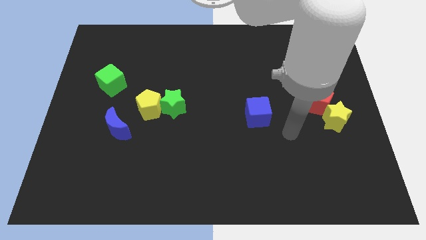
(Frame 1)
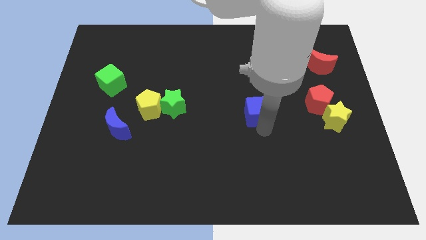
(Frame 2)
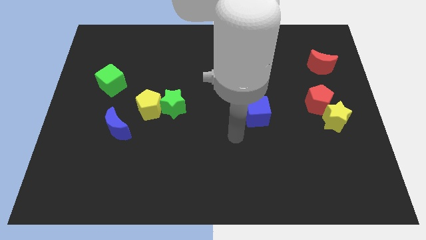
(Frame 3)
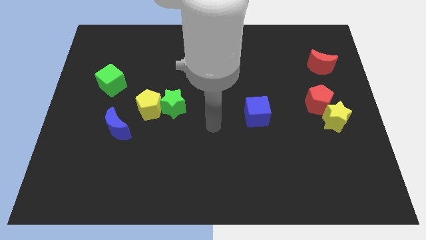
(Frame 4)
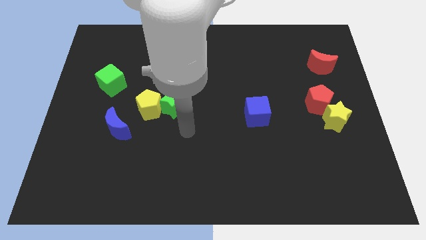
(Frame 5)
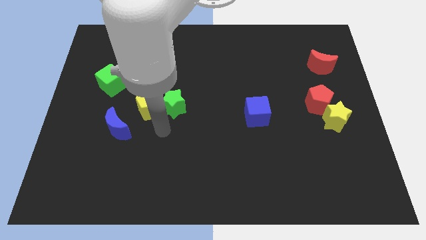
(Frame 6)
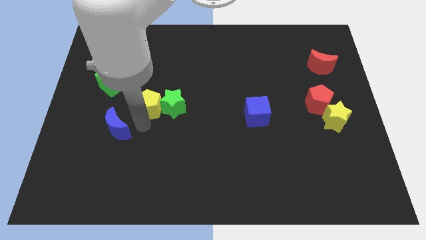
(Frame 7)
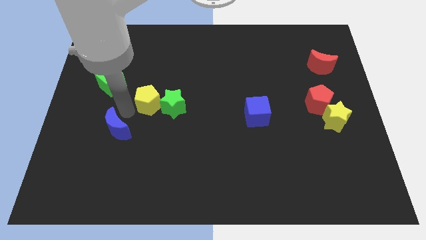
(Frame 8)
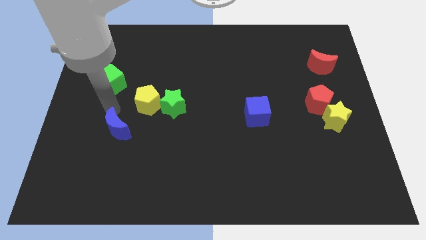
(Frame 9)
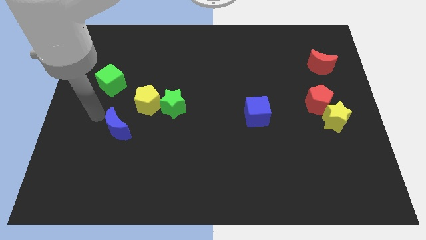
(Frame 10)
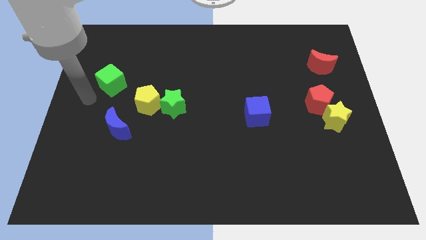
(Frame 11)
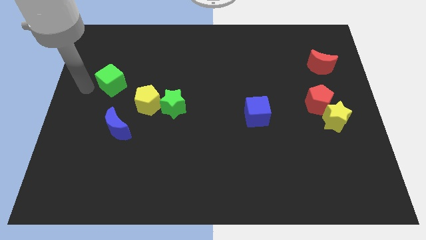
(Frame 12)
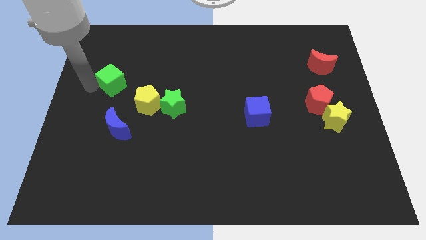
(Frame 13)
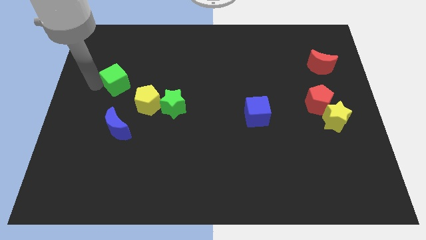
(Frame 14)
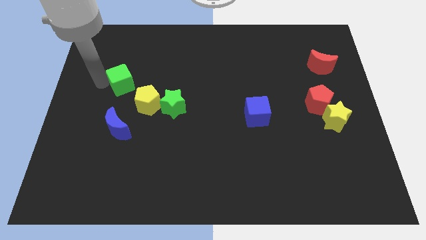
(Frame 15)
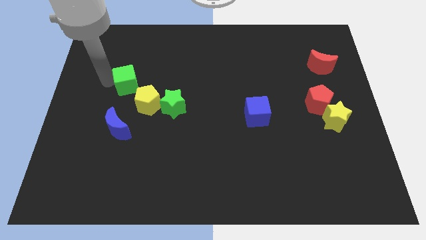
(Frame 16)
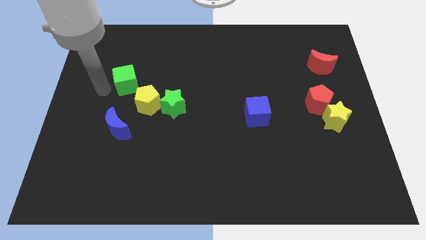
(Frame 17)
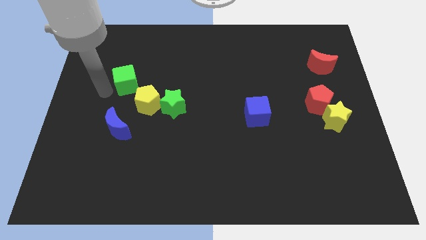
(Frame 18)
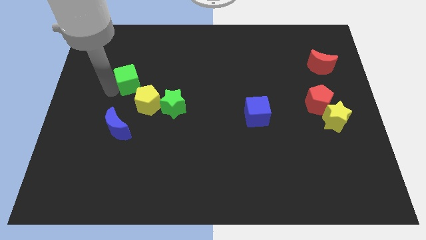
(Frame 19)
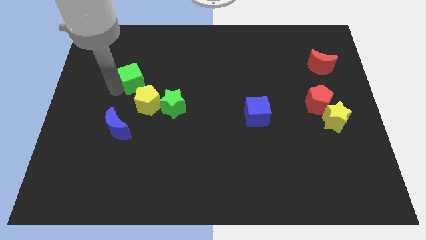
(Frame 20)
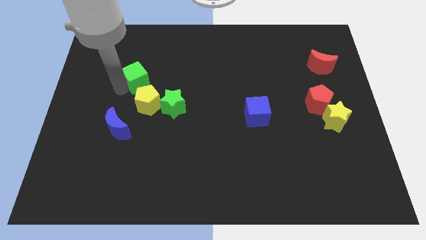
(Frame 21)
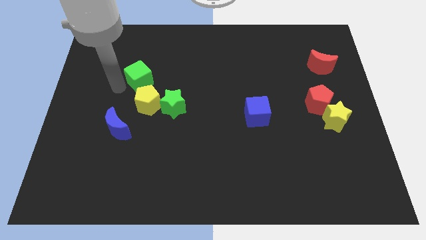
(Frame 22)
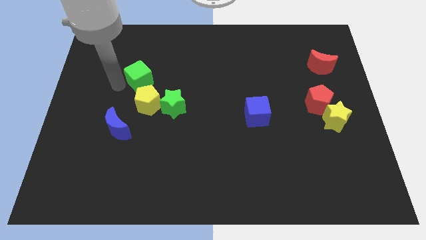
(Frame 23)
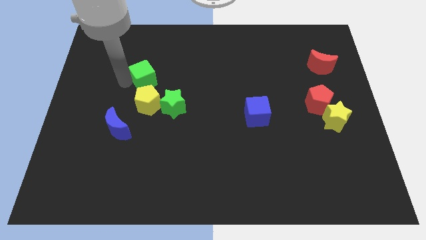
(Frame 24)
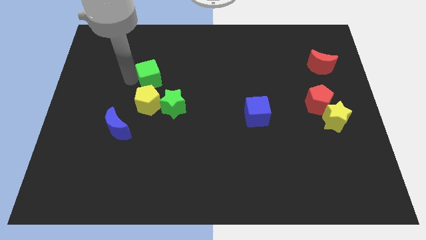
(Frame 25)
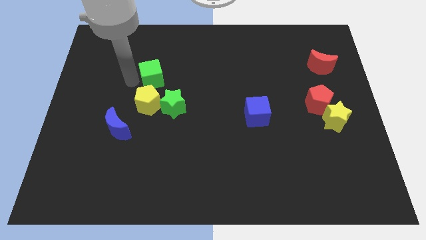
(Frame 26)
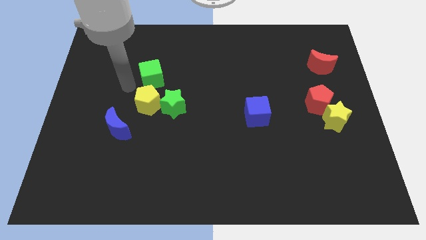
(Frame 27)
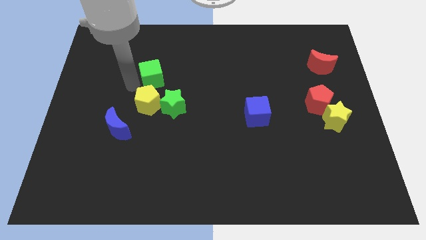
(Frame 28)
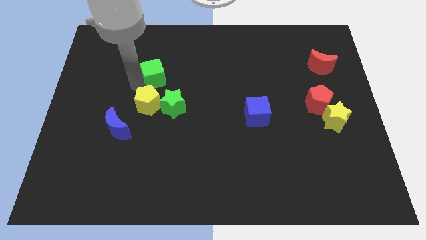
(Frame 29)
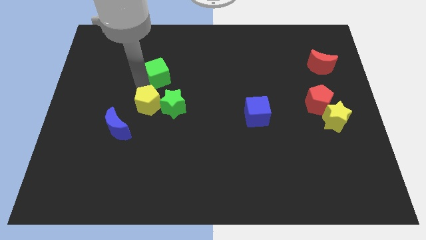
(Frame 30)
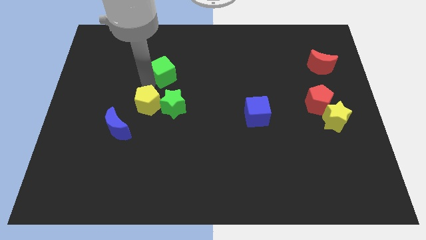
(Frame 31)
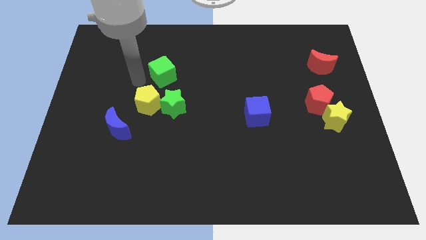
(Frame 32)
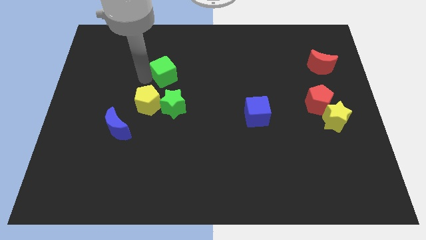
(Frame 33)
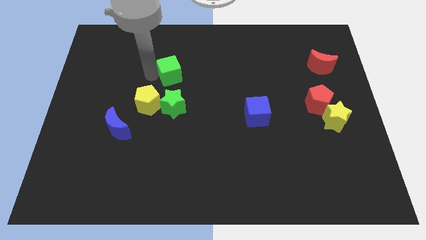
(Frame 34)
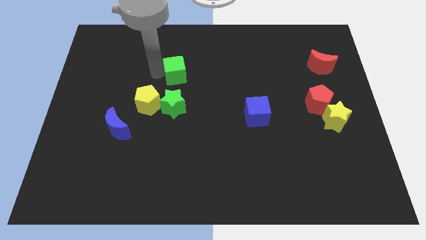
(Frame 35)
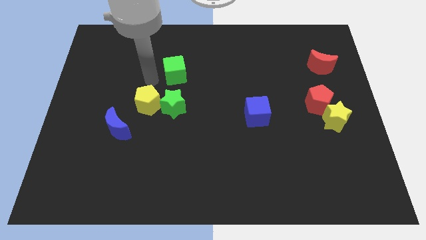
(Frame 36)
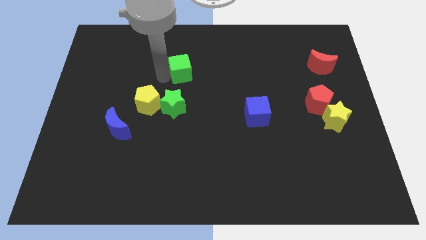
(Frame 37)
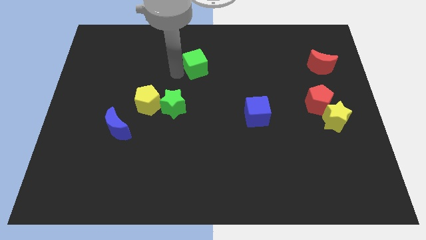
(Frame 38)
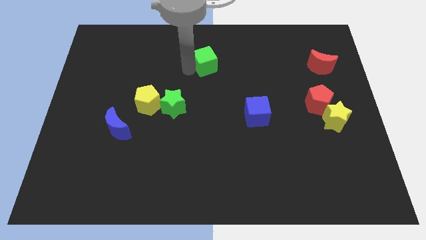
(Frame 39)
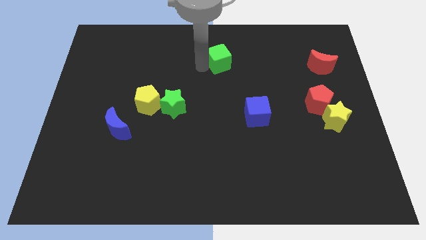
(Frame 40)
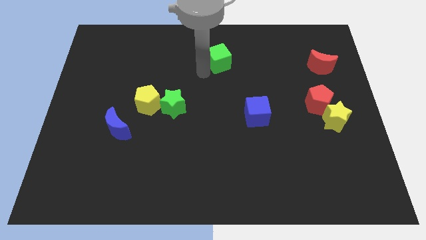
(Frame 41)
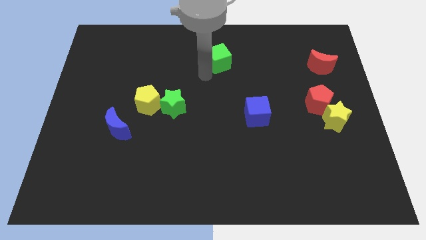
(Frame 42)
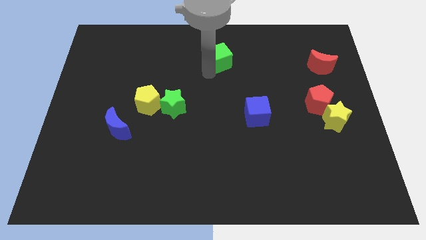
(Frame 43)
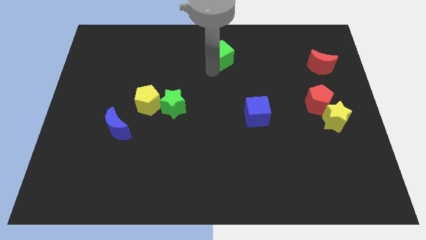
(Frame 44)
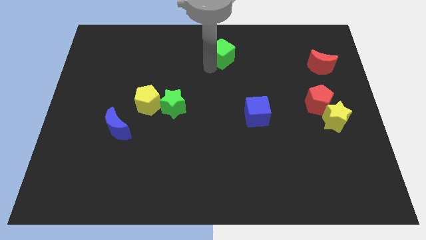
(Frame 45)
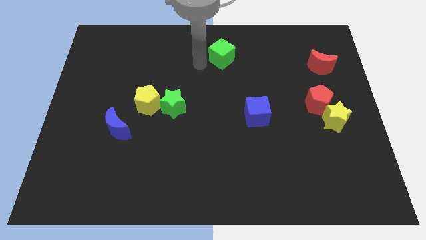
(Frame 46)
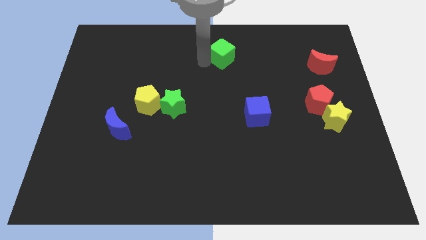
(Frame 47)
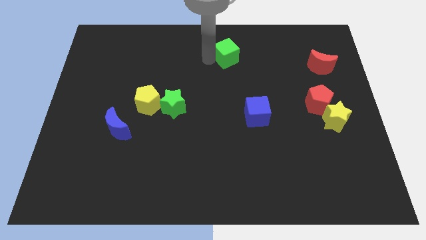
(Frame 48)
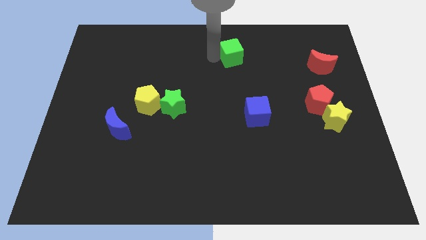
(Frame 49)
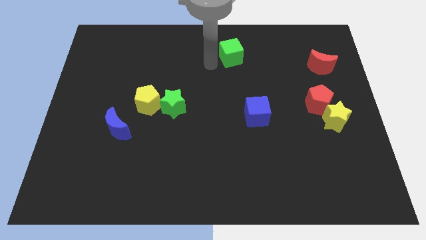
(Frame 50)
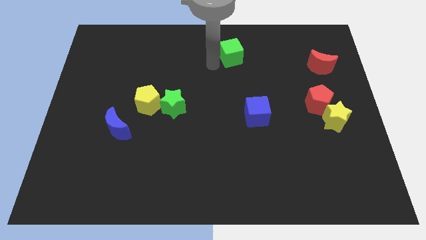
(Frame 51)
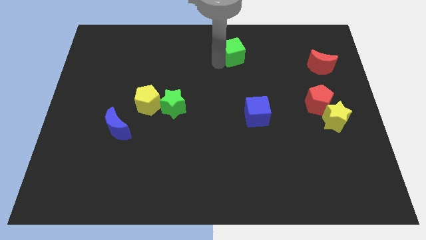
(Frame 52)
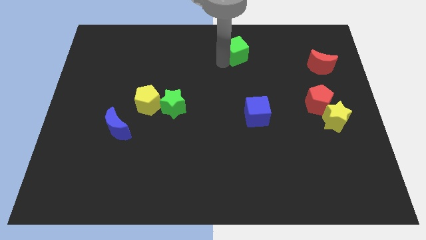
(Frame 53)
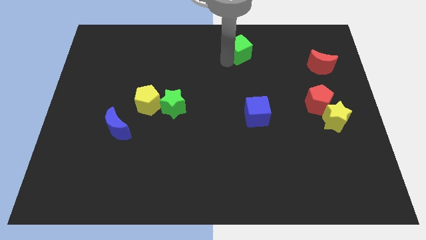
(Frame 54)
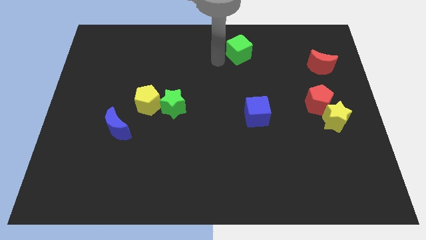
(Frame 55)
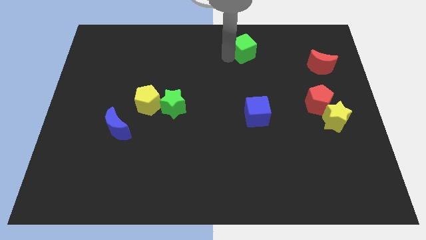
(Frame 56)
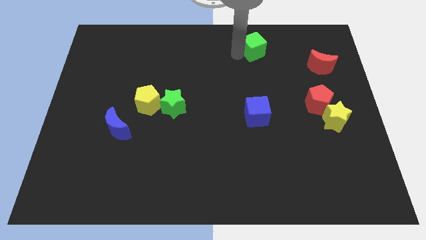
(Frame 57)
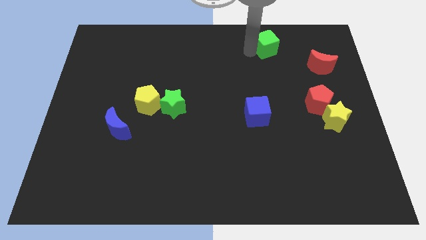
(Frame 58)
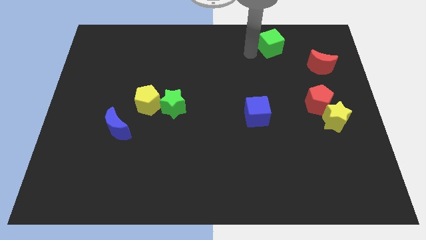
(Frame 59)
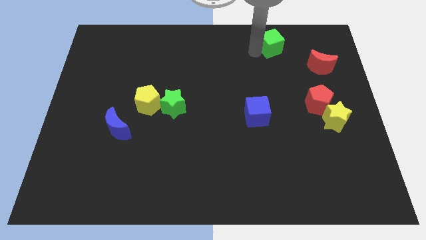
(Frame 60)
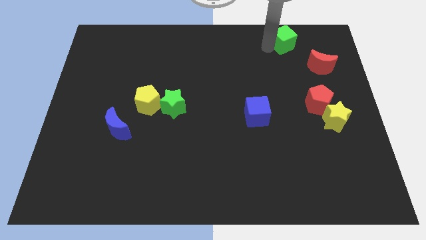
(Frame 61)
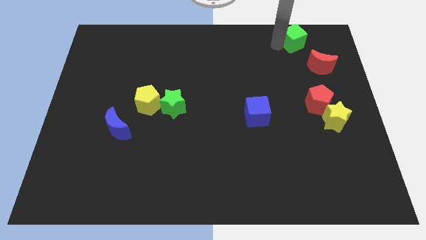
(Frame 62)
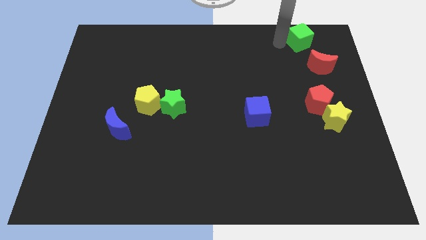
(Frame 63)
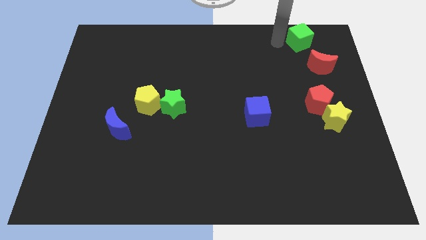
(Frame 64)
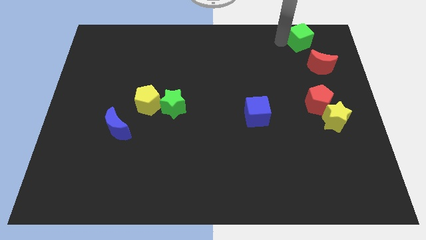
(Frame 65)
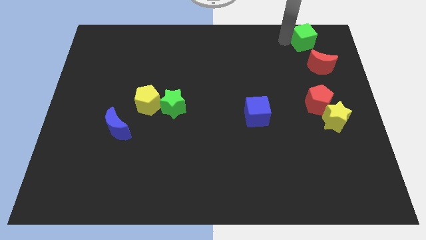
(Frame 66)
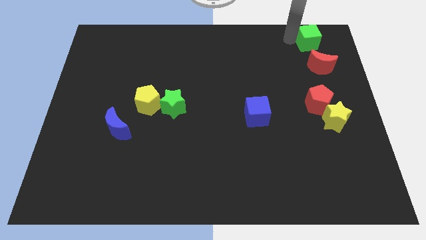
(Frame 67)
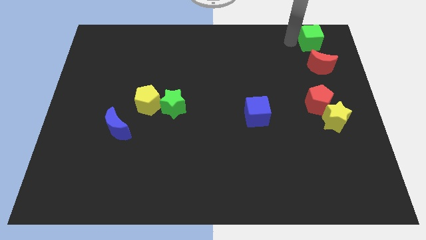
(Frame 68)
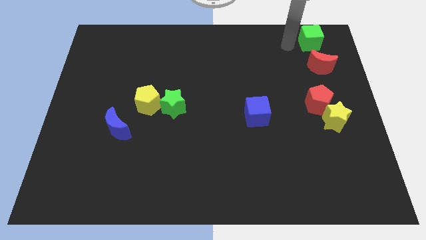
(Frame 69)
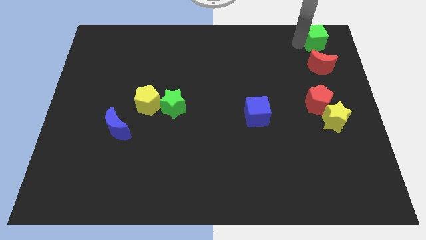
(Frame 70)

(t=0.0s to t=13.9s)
slide the green cube to the top right
